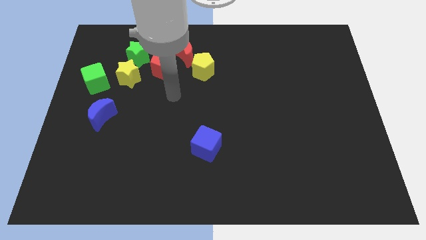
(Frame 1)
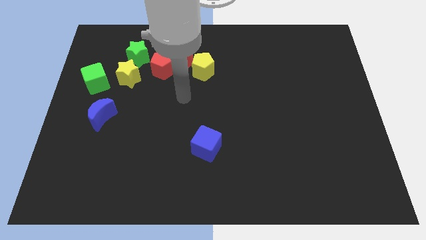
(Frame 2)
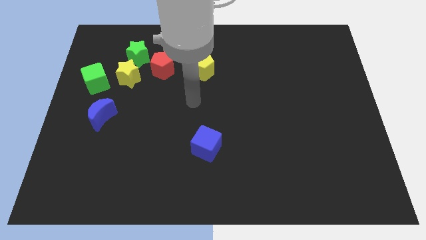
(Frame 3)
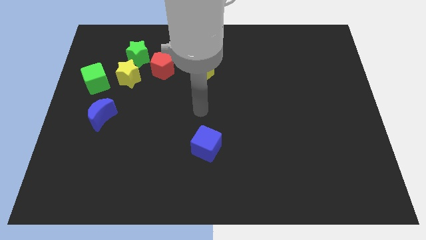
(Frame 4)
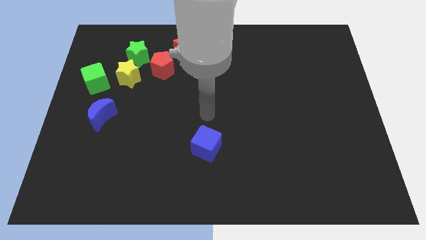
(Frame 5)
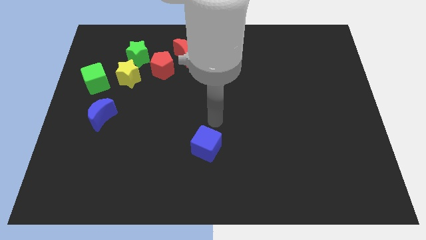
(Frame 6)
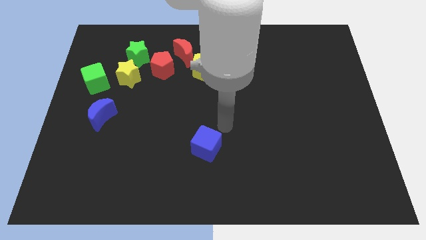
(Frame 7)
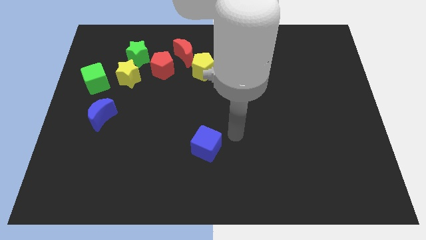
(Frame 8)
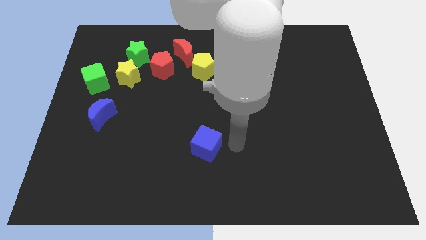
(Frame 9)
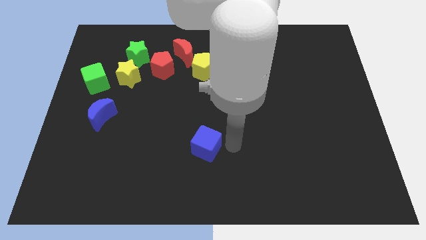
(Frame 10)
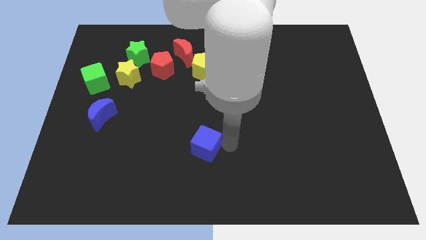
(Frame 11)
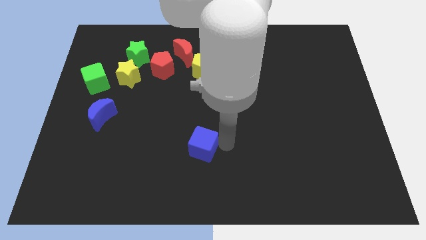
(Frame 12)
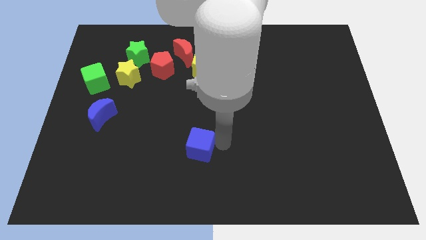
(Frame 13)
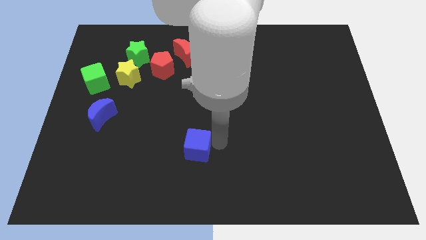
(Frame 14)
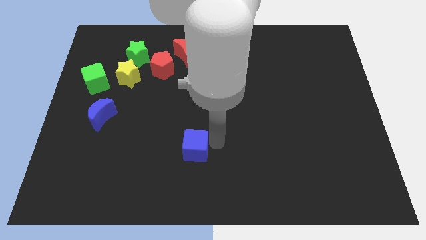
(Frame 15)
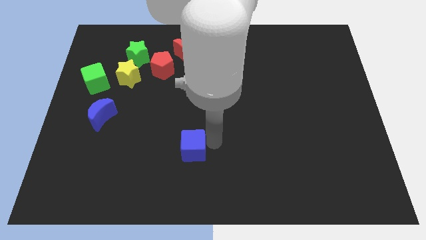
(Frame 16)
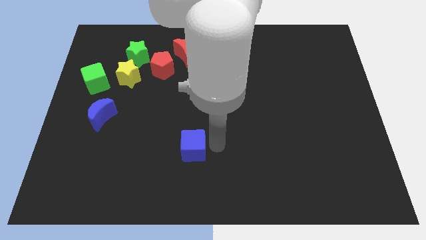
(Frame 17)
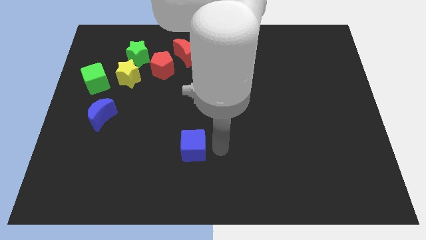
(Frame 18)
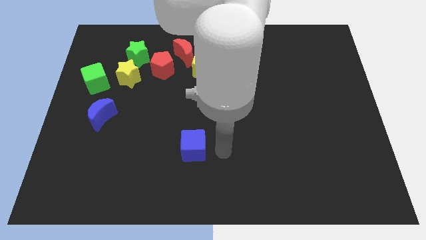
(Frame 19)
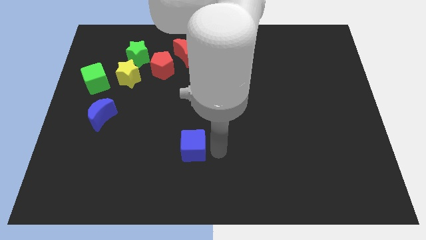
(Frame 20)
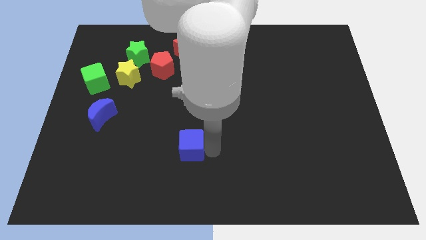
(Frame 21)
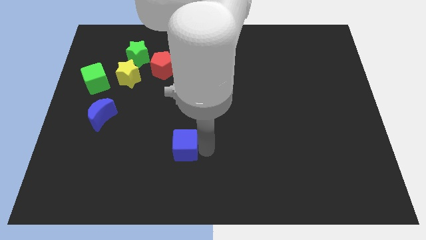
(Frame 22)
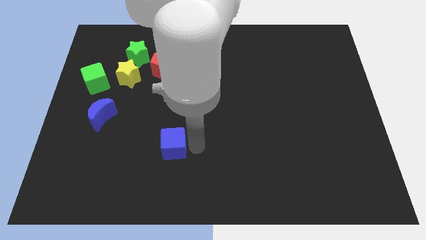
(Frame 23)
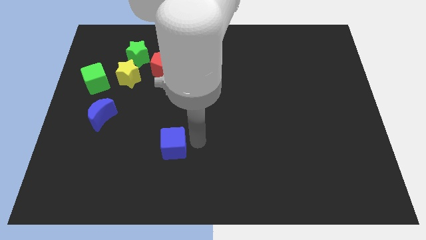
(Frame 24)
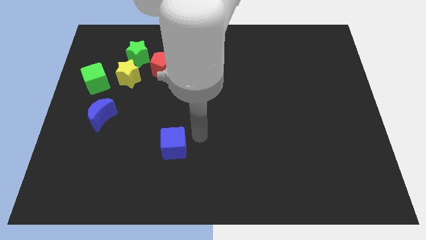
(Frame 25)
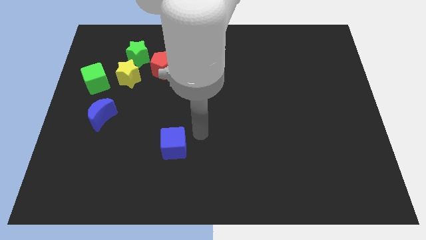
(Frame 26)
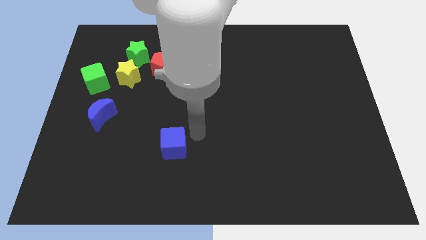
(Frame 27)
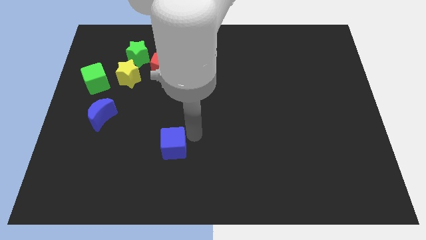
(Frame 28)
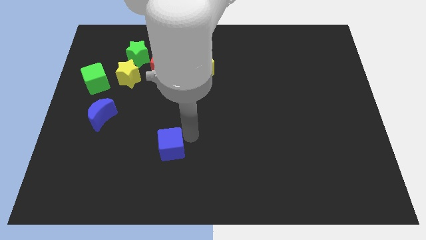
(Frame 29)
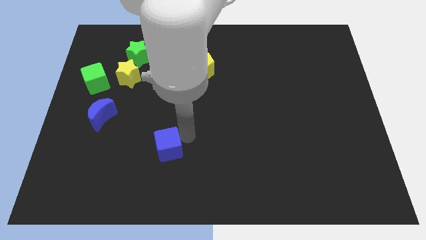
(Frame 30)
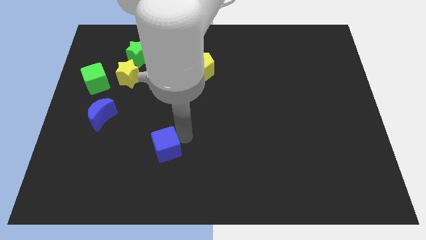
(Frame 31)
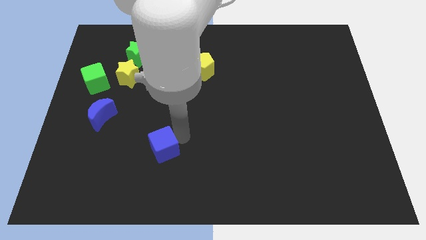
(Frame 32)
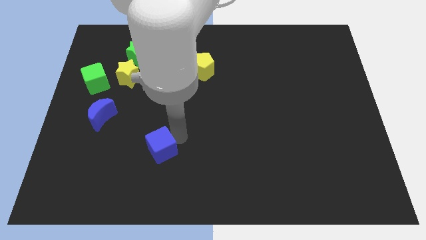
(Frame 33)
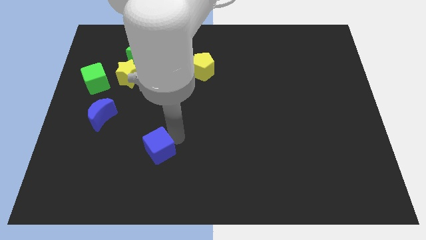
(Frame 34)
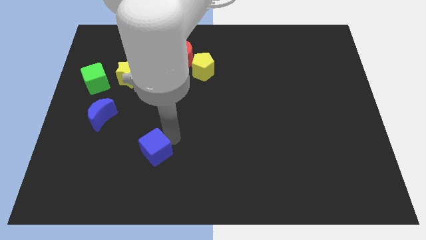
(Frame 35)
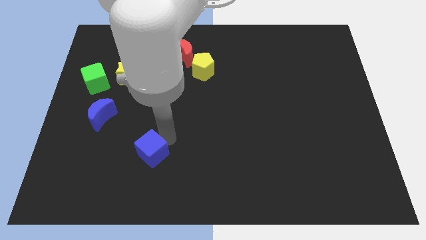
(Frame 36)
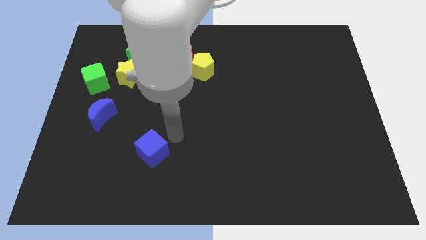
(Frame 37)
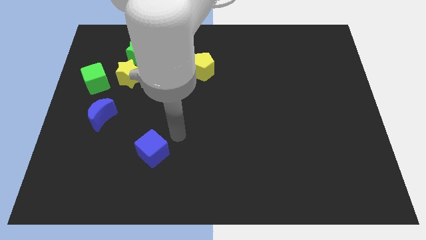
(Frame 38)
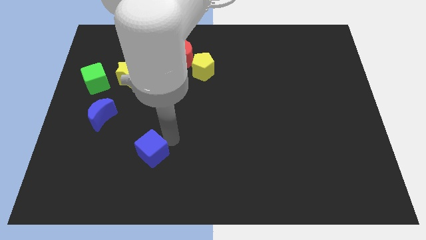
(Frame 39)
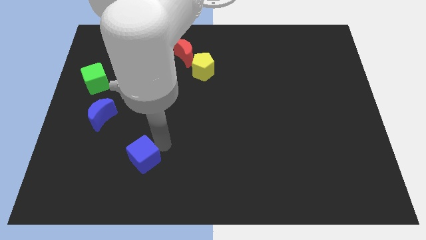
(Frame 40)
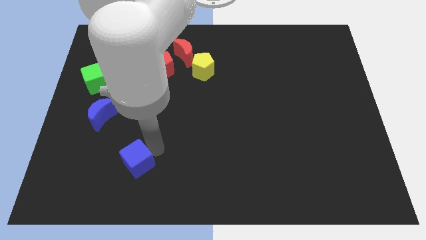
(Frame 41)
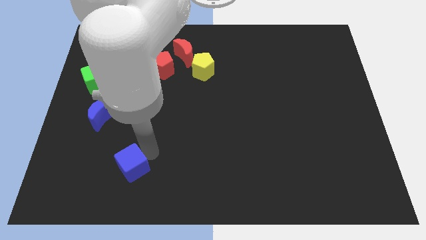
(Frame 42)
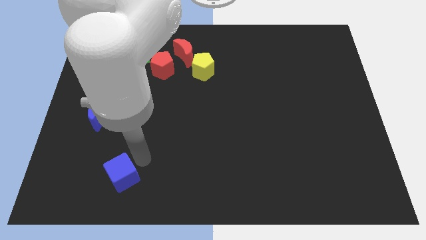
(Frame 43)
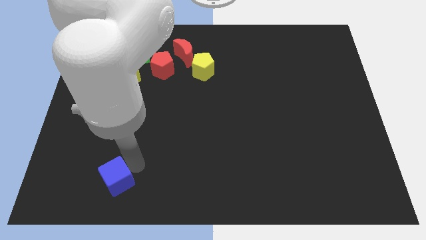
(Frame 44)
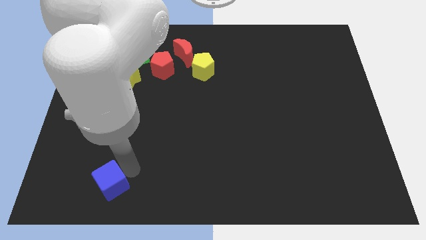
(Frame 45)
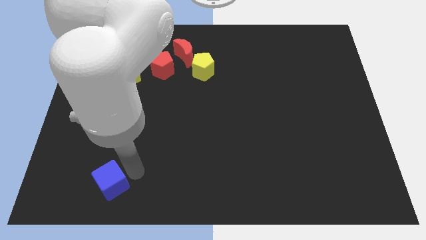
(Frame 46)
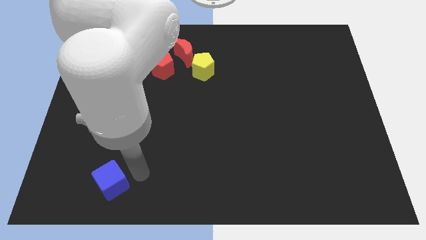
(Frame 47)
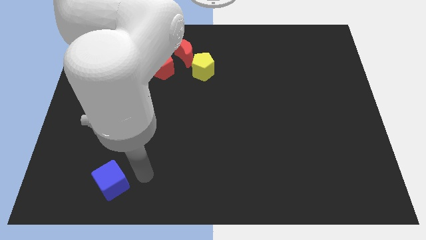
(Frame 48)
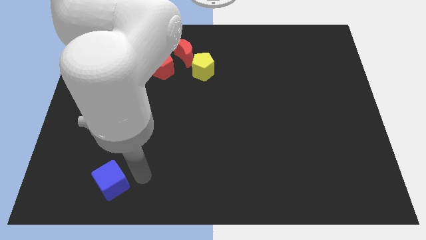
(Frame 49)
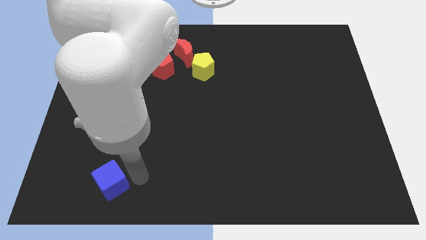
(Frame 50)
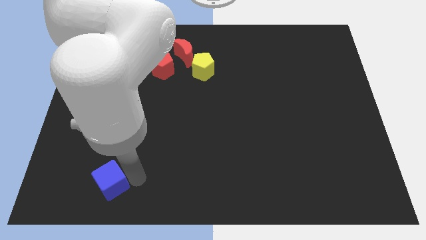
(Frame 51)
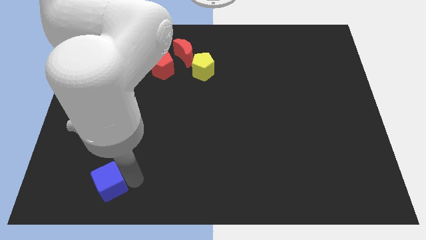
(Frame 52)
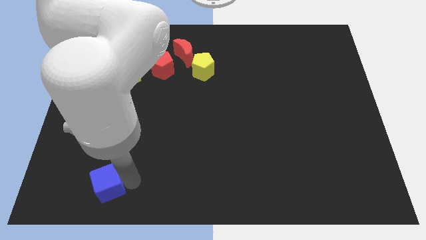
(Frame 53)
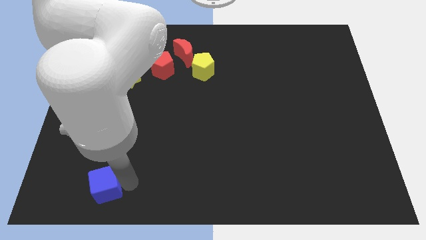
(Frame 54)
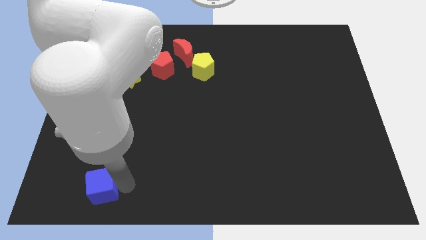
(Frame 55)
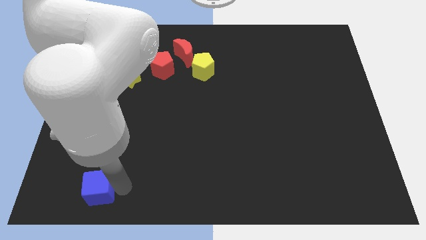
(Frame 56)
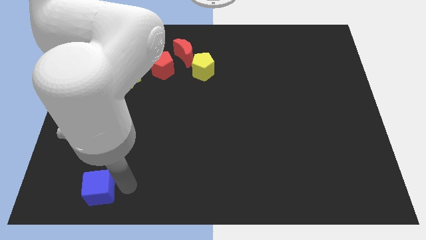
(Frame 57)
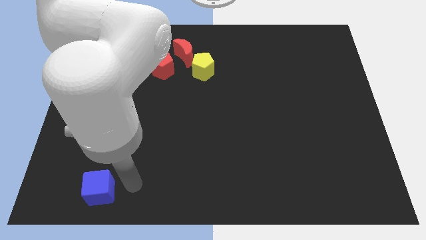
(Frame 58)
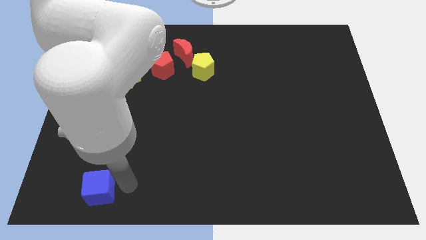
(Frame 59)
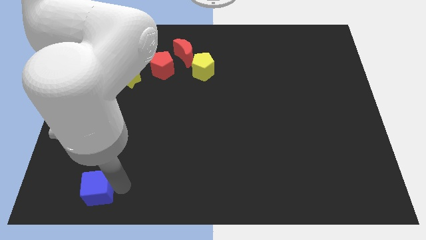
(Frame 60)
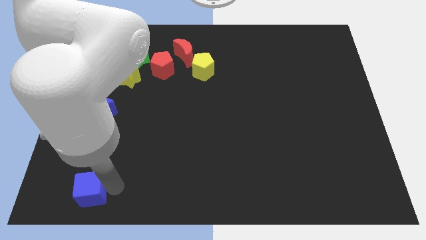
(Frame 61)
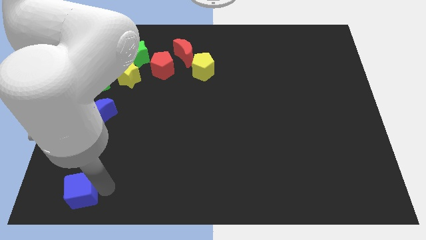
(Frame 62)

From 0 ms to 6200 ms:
push the blue cube to the lower left corner
